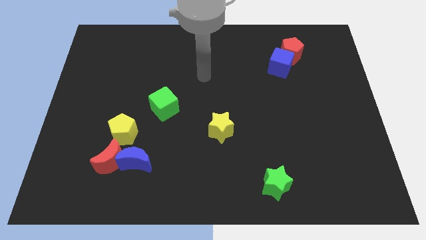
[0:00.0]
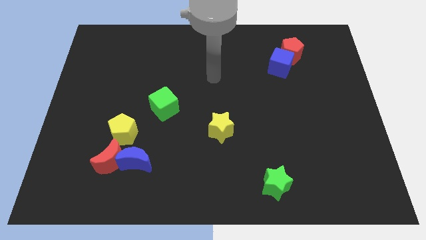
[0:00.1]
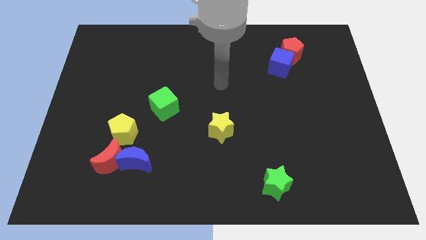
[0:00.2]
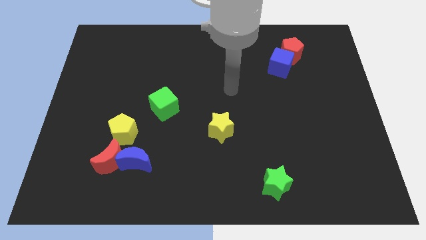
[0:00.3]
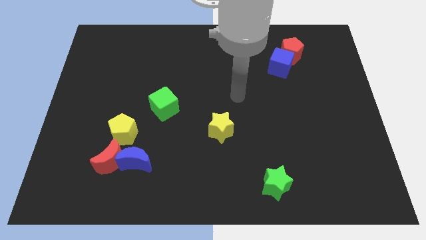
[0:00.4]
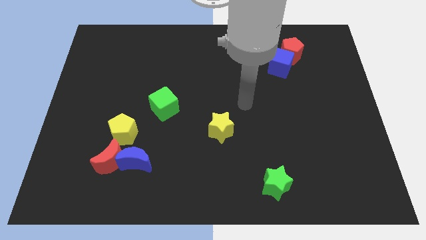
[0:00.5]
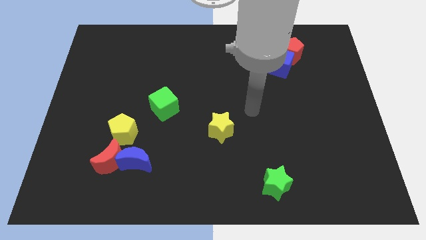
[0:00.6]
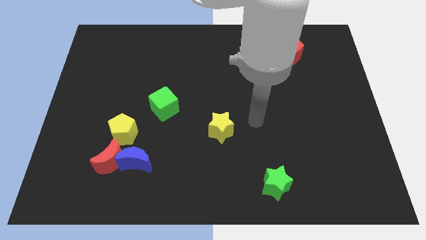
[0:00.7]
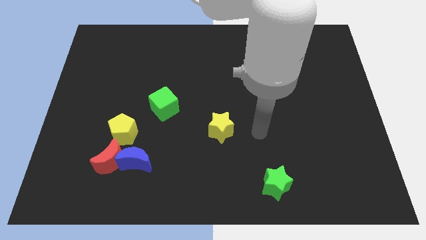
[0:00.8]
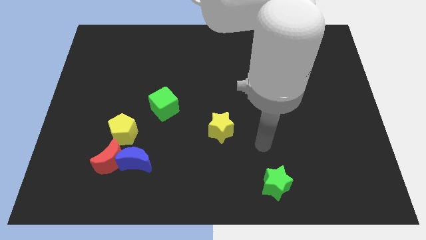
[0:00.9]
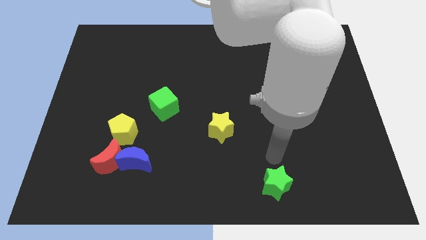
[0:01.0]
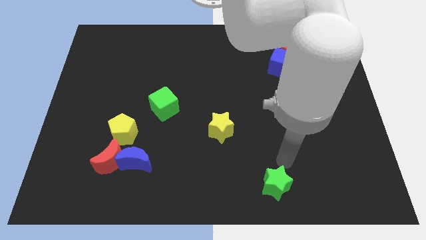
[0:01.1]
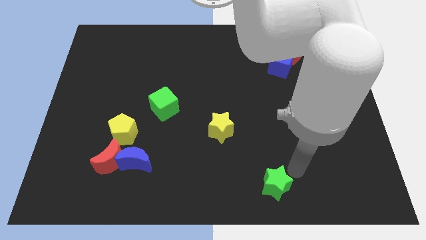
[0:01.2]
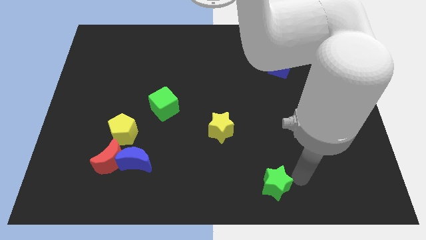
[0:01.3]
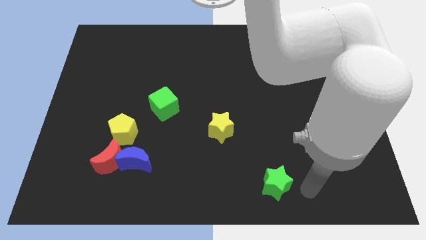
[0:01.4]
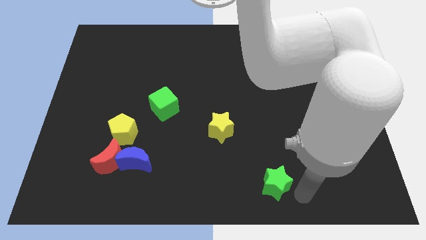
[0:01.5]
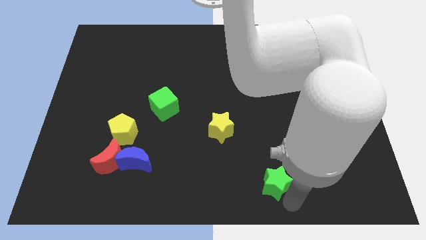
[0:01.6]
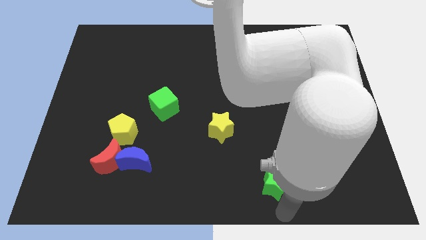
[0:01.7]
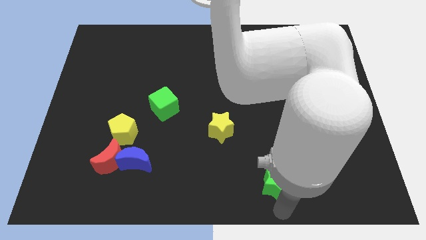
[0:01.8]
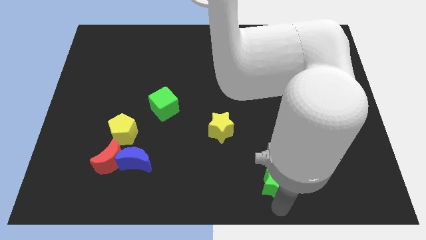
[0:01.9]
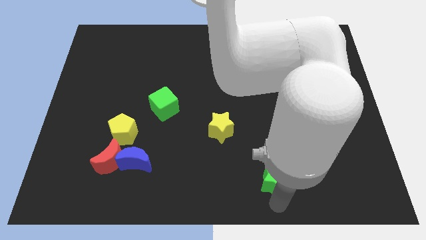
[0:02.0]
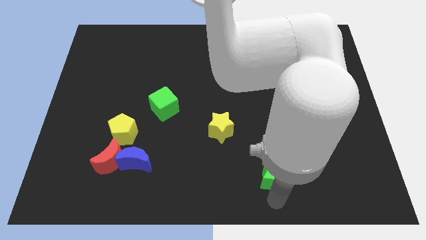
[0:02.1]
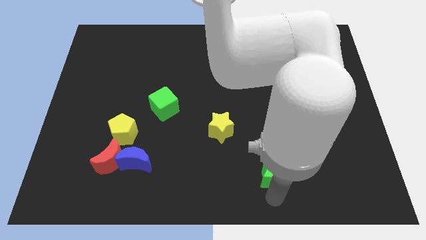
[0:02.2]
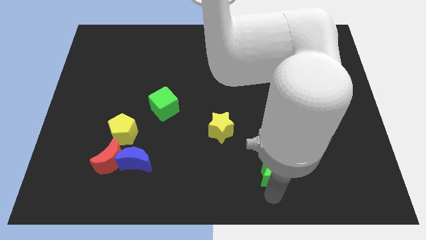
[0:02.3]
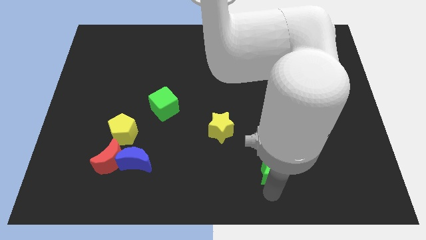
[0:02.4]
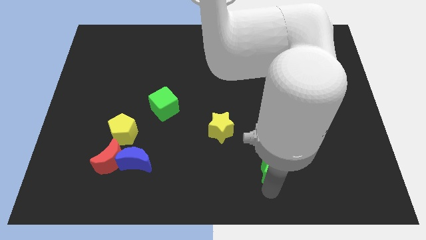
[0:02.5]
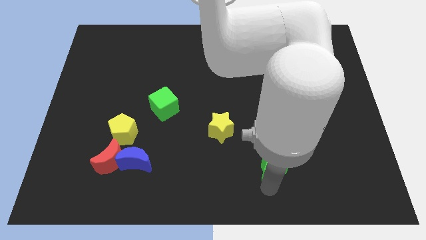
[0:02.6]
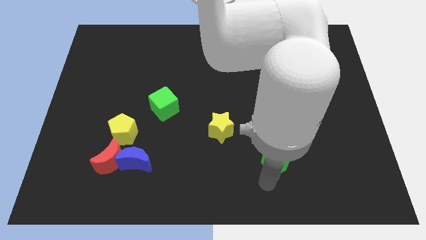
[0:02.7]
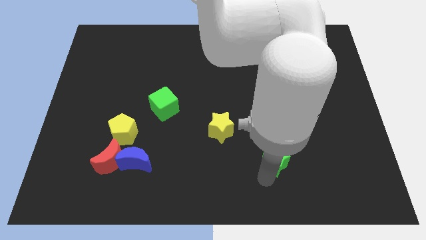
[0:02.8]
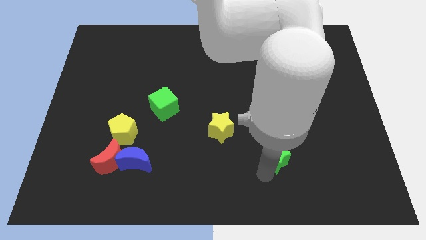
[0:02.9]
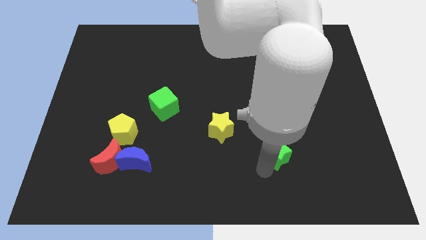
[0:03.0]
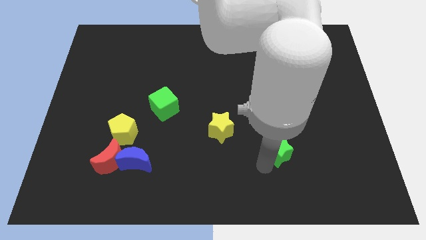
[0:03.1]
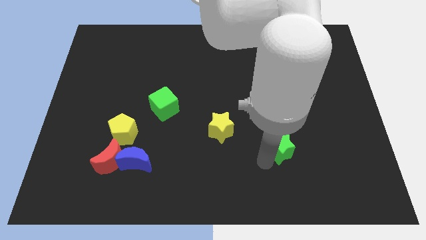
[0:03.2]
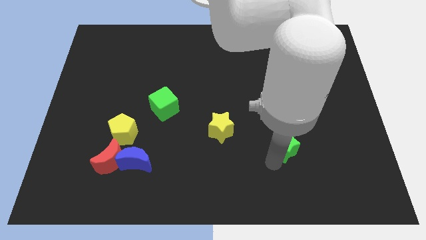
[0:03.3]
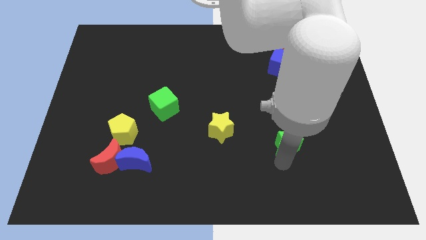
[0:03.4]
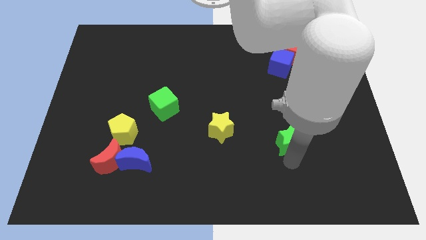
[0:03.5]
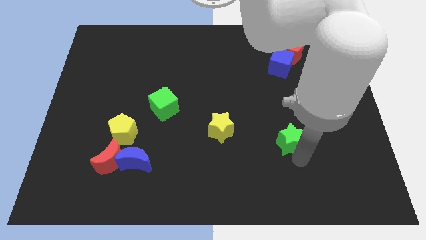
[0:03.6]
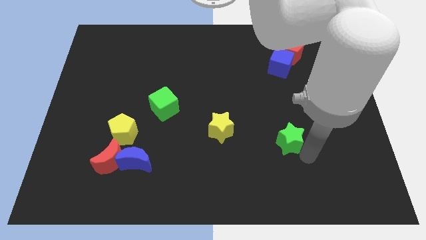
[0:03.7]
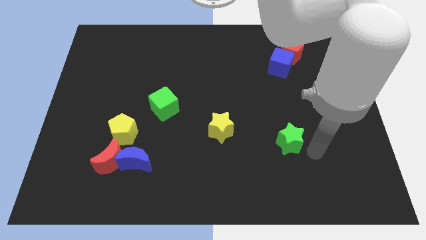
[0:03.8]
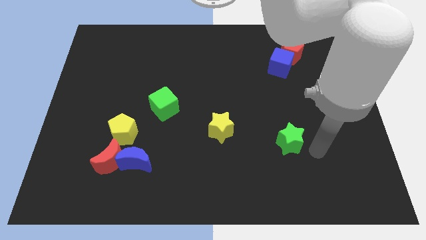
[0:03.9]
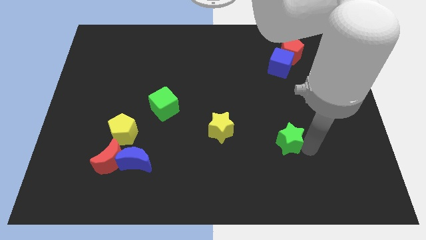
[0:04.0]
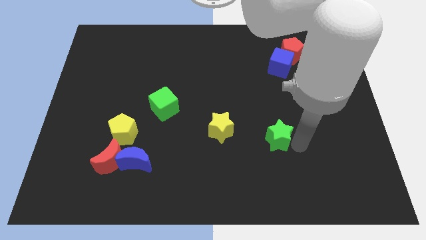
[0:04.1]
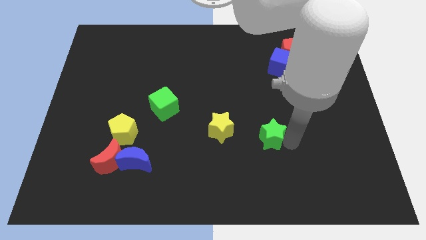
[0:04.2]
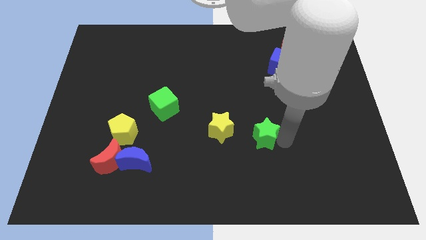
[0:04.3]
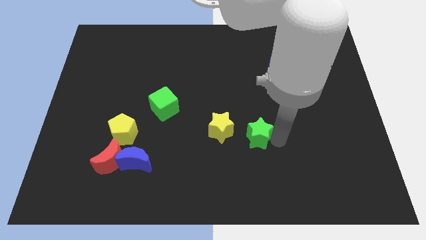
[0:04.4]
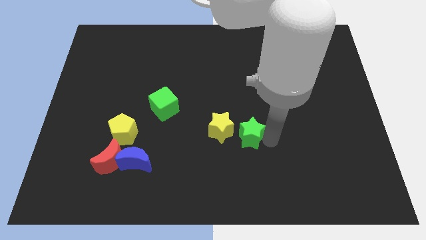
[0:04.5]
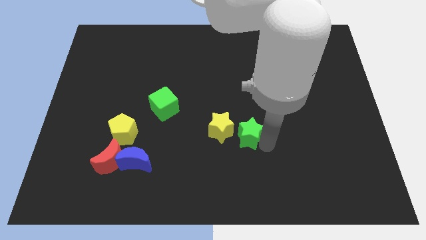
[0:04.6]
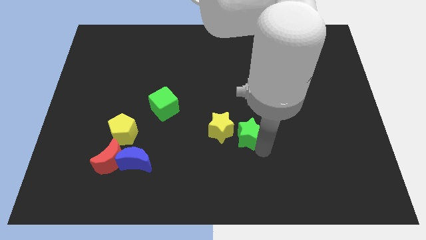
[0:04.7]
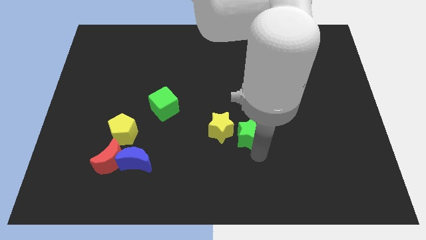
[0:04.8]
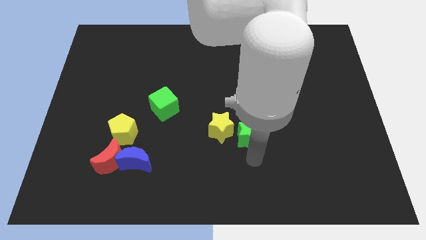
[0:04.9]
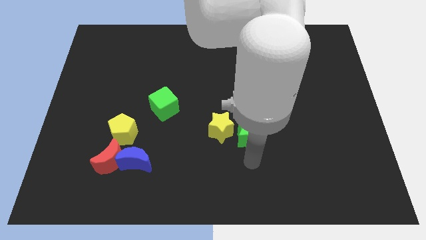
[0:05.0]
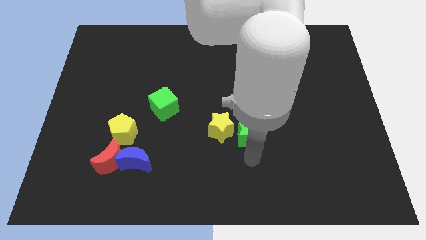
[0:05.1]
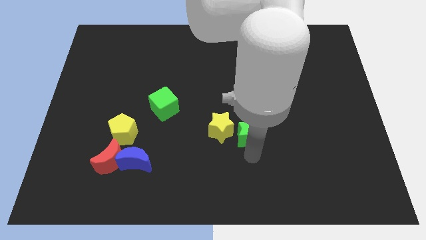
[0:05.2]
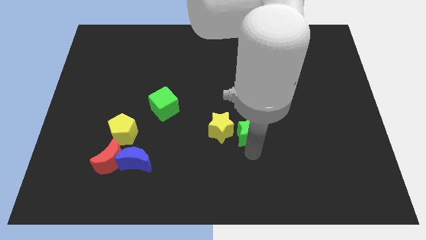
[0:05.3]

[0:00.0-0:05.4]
slide the green star diagonally up and to the right of the yellow star

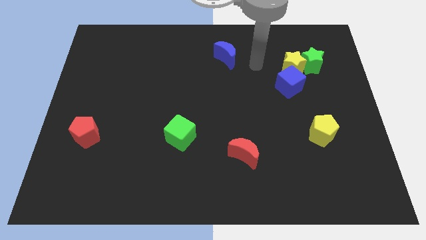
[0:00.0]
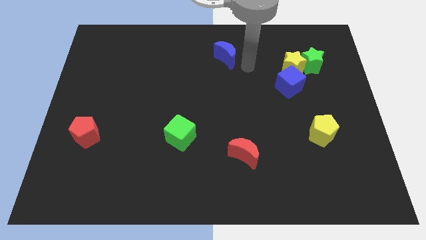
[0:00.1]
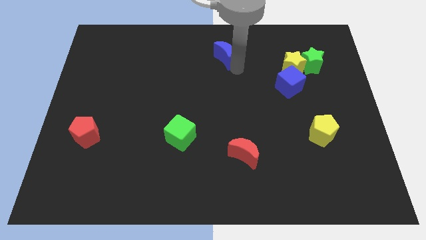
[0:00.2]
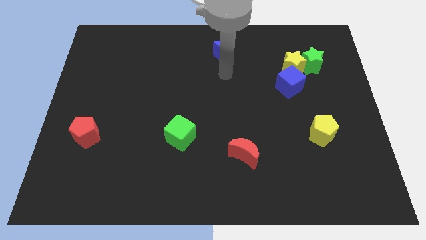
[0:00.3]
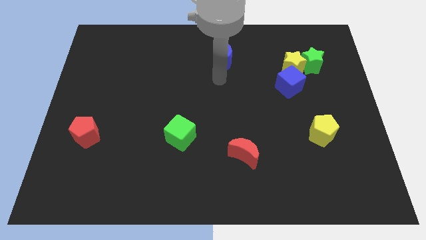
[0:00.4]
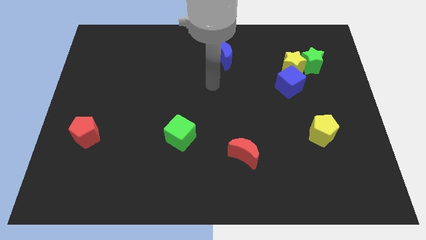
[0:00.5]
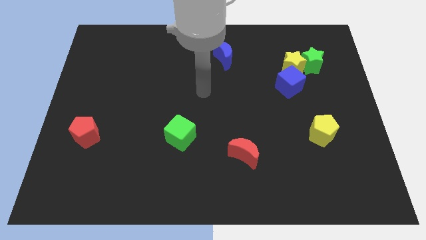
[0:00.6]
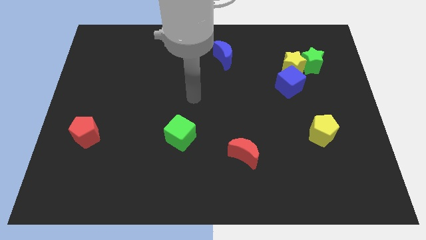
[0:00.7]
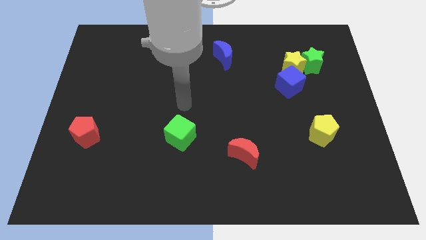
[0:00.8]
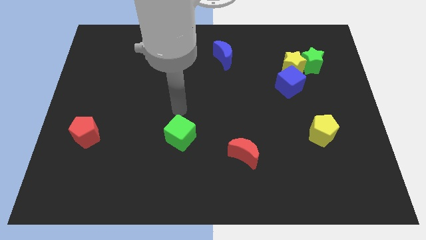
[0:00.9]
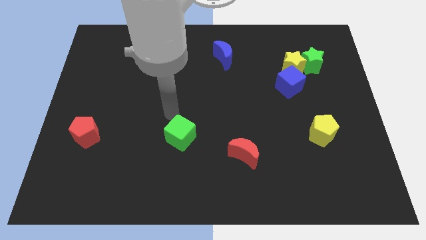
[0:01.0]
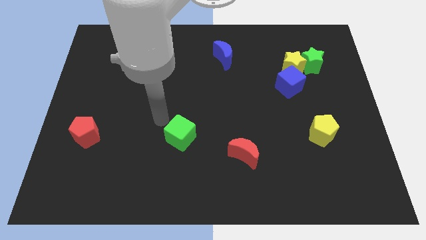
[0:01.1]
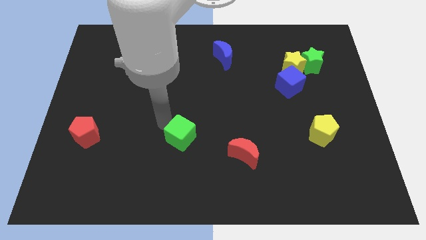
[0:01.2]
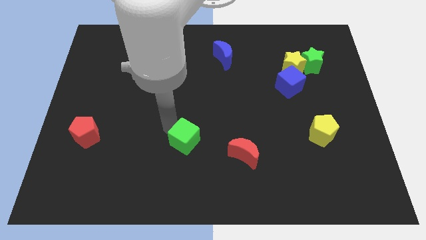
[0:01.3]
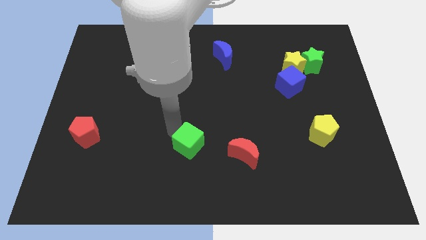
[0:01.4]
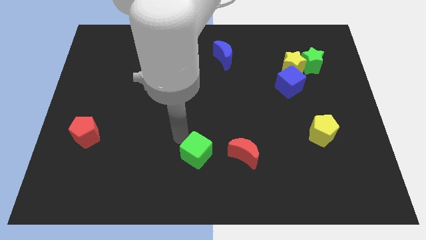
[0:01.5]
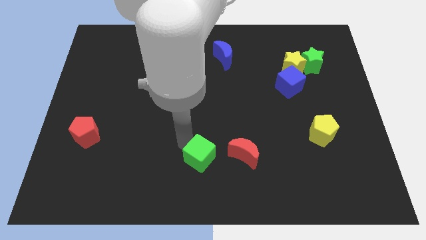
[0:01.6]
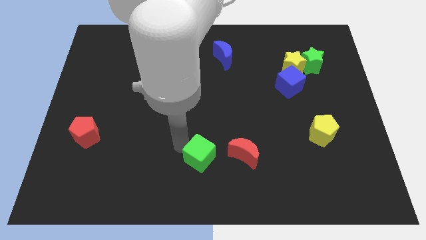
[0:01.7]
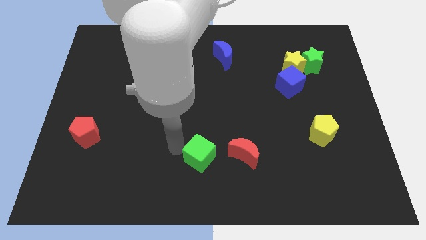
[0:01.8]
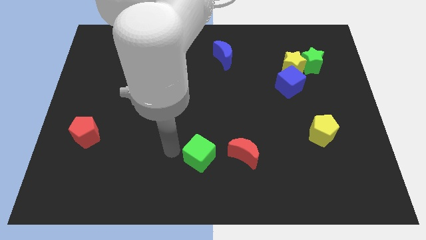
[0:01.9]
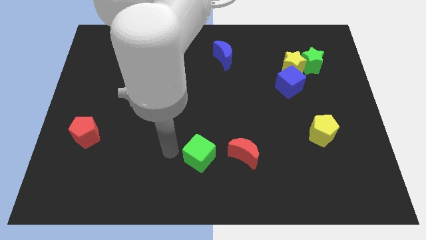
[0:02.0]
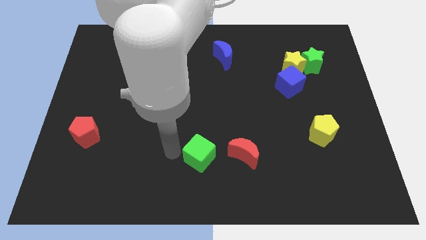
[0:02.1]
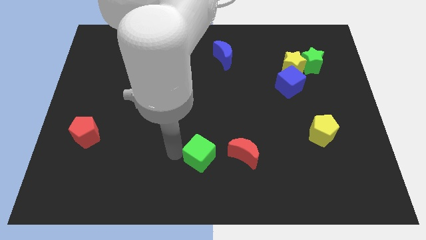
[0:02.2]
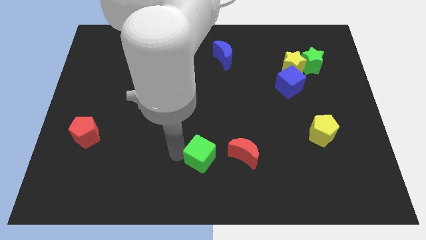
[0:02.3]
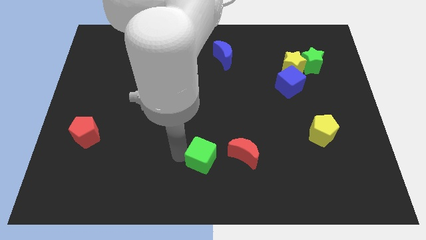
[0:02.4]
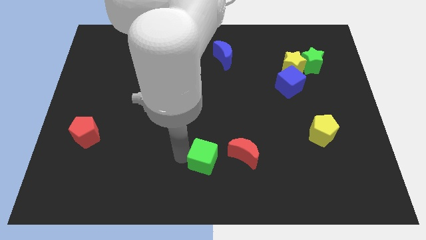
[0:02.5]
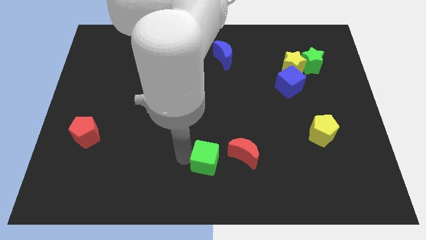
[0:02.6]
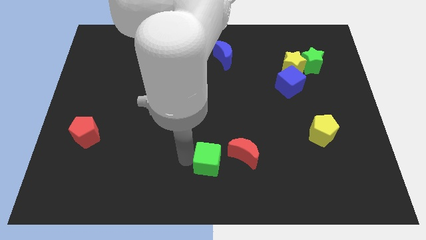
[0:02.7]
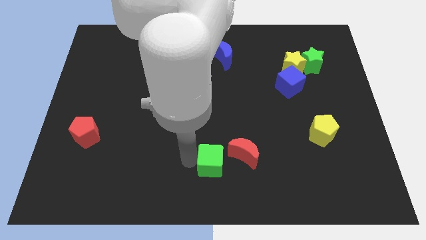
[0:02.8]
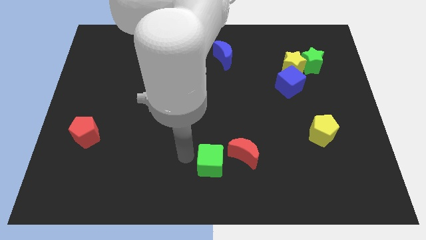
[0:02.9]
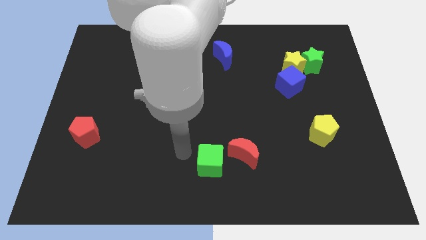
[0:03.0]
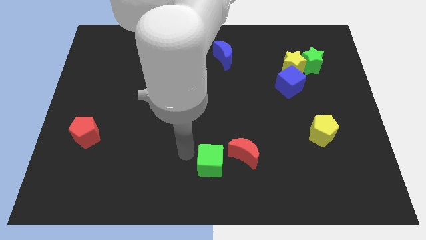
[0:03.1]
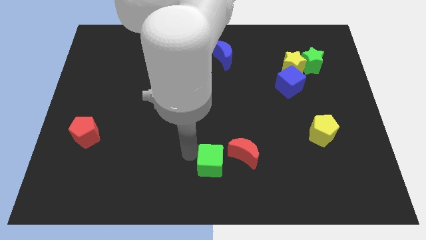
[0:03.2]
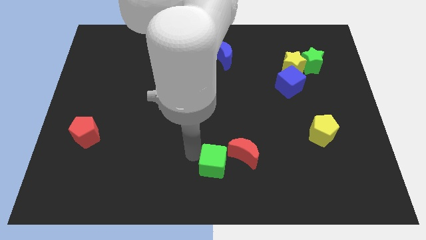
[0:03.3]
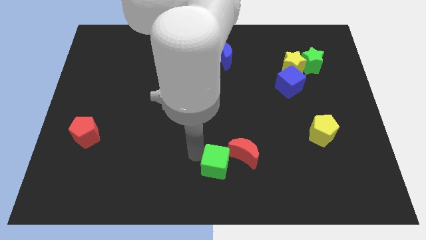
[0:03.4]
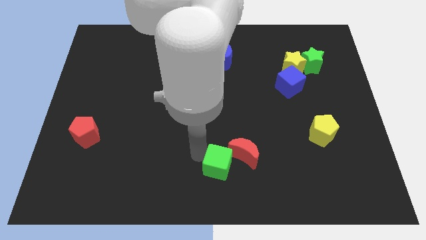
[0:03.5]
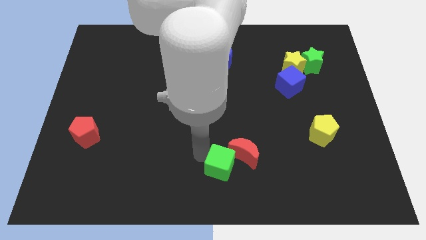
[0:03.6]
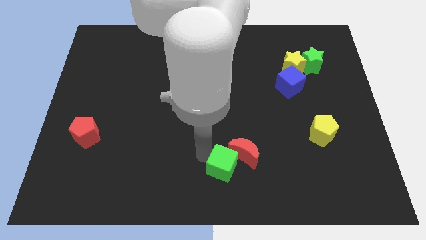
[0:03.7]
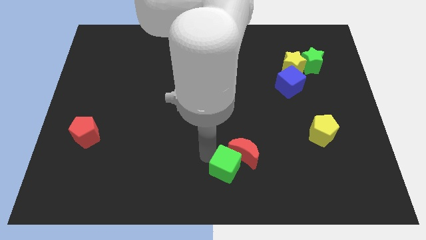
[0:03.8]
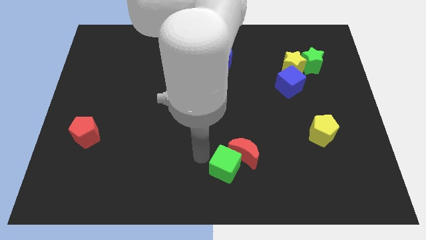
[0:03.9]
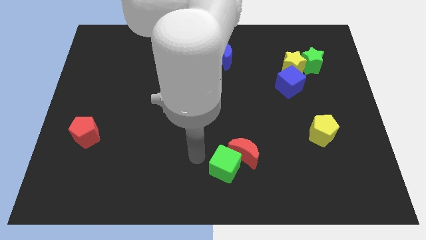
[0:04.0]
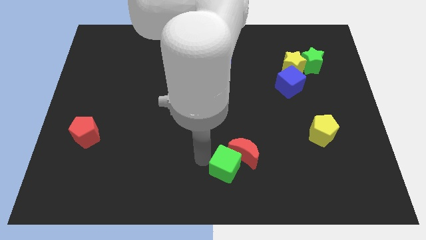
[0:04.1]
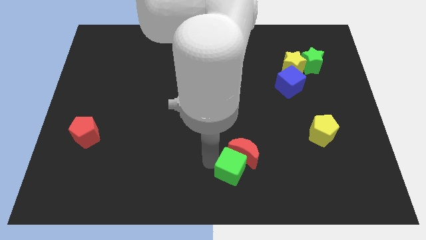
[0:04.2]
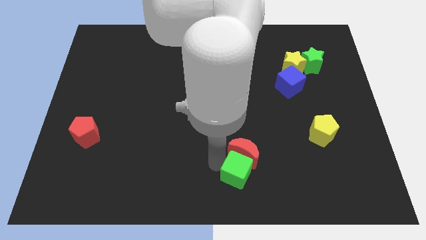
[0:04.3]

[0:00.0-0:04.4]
slide the green cube to the bottom right side of the red moon
